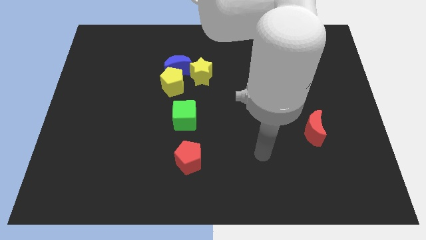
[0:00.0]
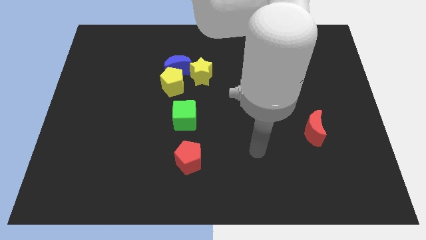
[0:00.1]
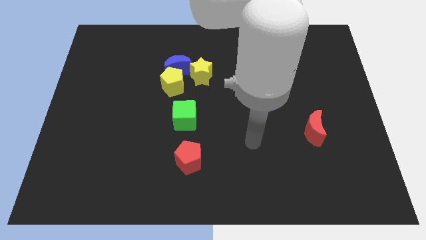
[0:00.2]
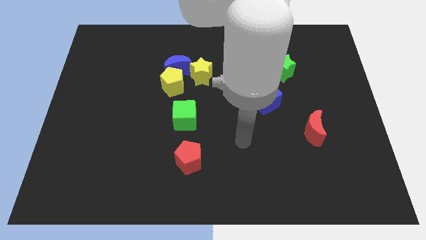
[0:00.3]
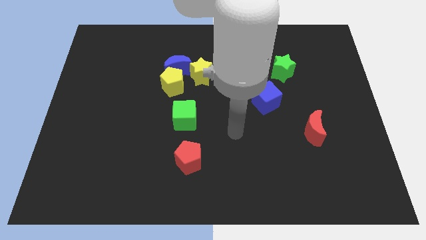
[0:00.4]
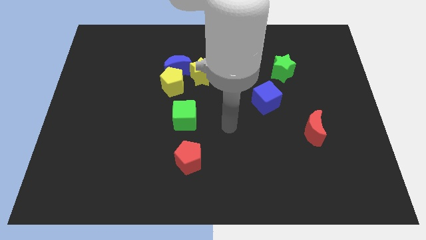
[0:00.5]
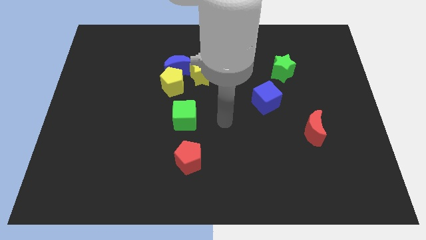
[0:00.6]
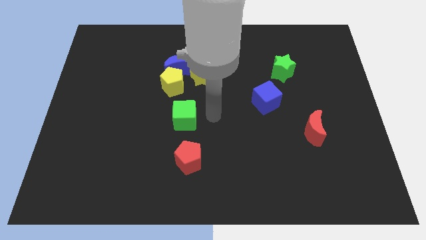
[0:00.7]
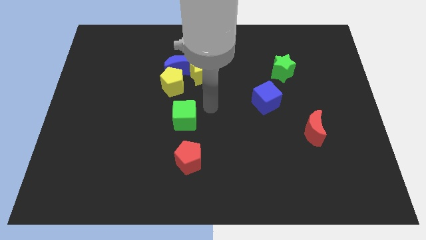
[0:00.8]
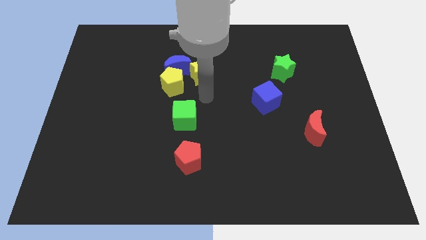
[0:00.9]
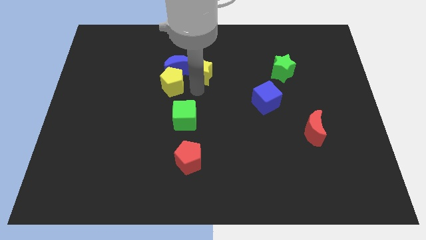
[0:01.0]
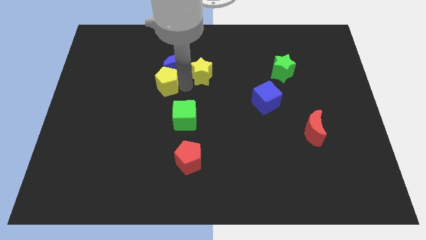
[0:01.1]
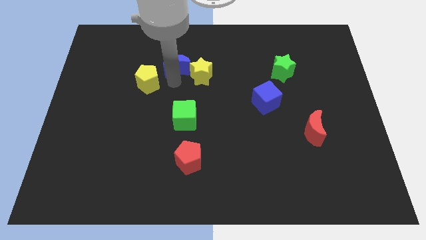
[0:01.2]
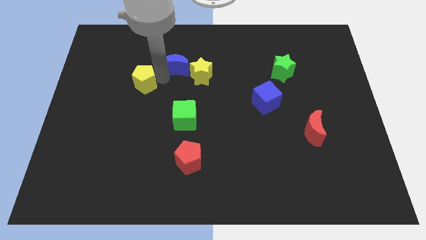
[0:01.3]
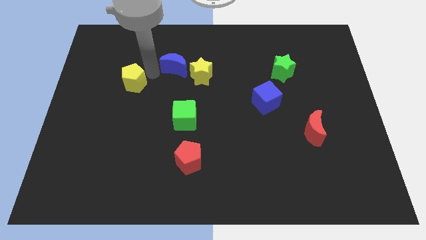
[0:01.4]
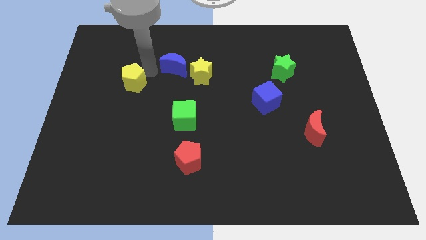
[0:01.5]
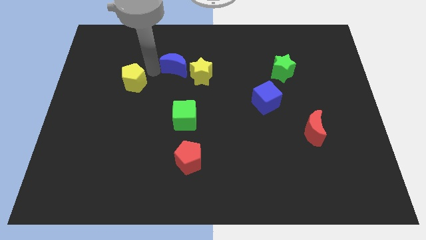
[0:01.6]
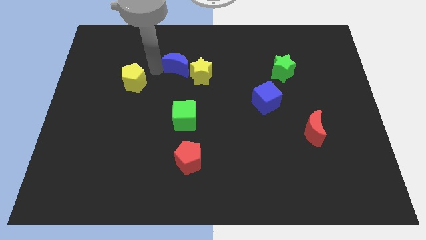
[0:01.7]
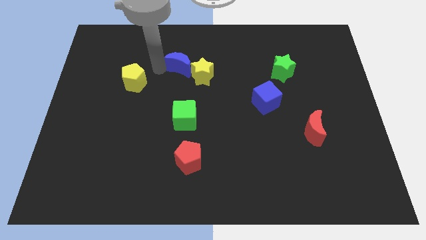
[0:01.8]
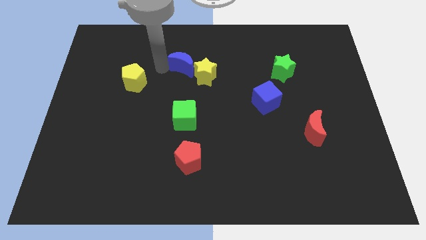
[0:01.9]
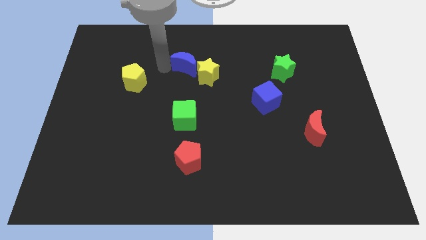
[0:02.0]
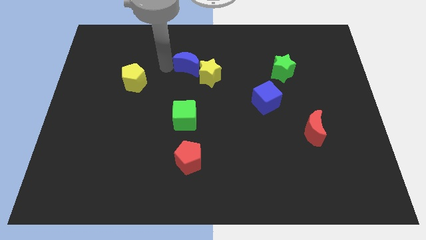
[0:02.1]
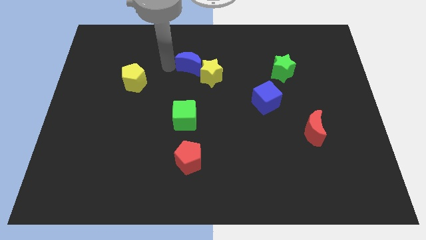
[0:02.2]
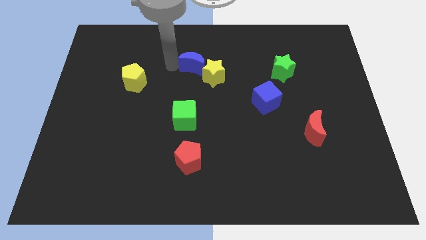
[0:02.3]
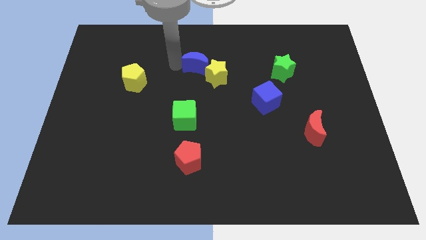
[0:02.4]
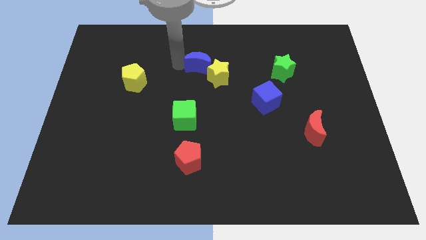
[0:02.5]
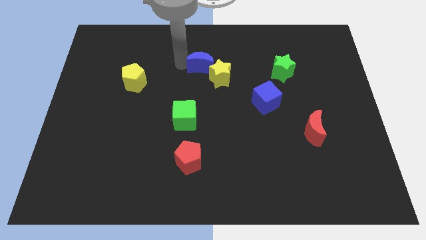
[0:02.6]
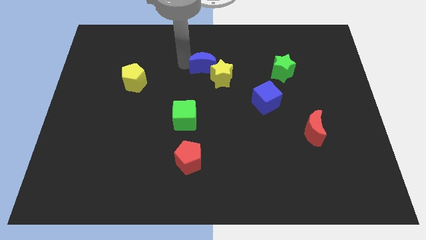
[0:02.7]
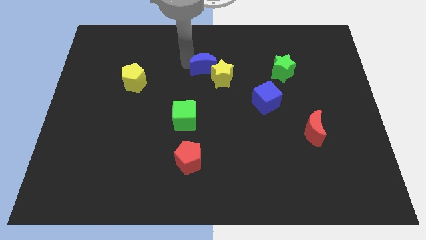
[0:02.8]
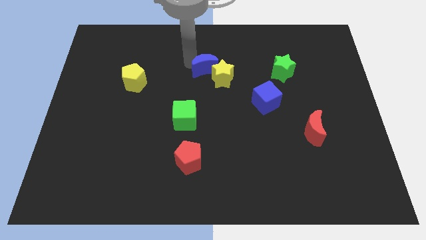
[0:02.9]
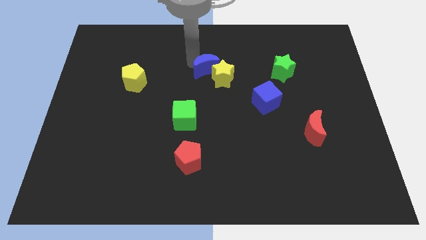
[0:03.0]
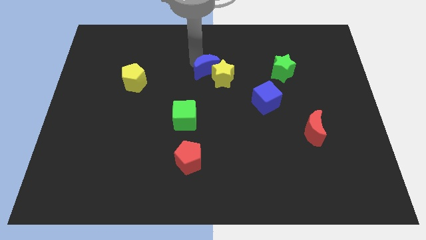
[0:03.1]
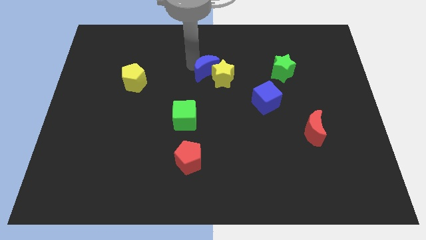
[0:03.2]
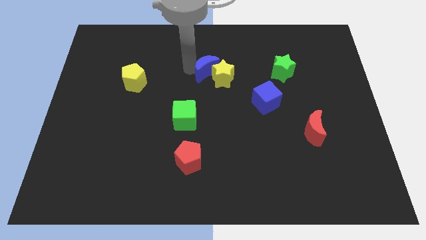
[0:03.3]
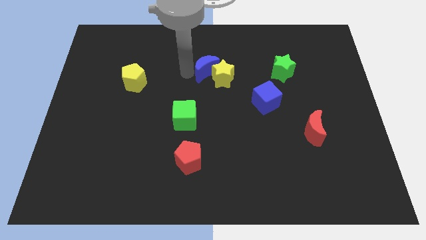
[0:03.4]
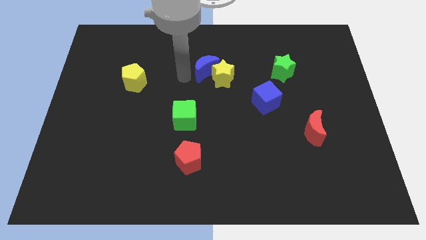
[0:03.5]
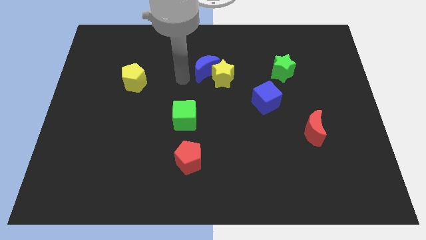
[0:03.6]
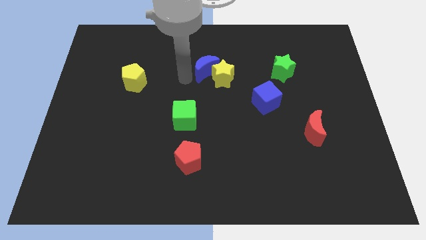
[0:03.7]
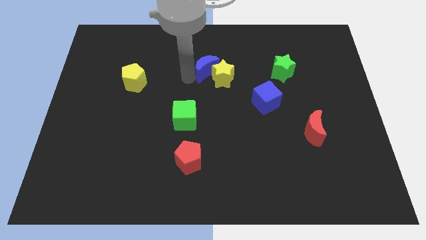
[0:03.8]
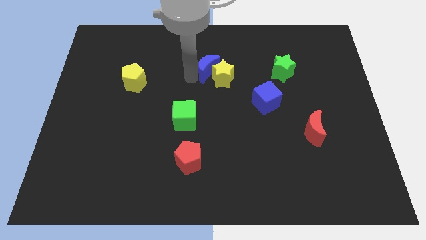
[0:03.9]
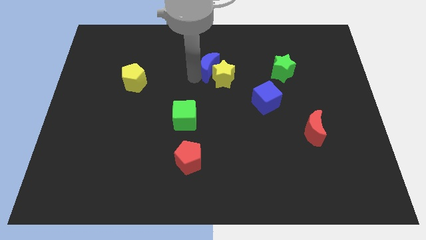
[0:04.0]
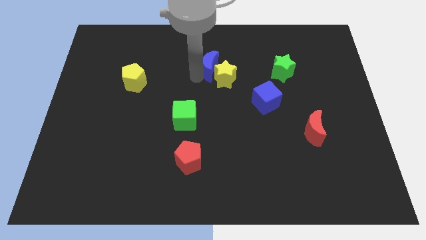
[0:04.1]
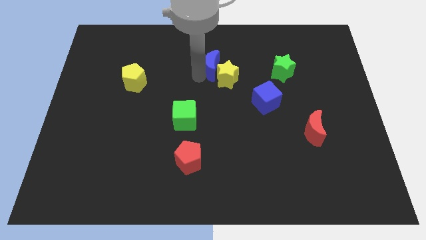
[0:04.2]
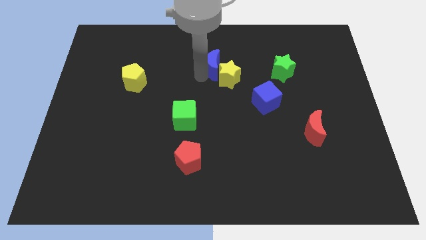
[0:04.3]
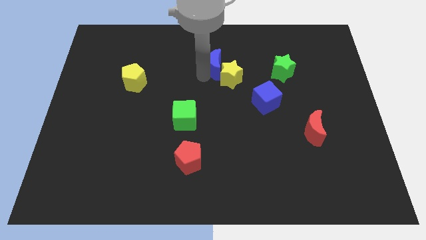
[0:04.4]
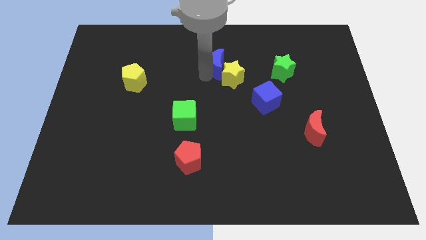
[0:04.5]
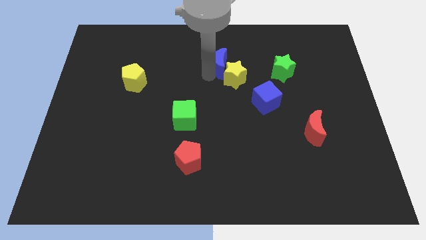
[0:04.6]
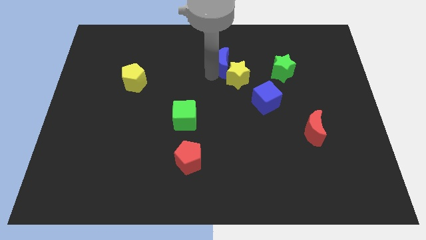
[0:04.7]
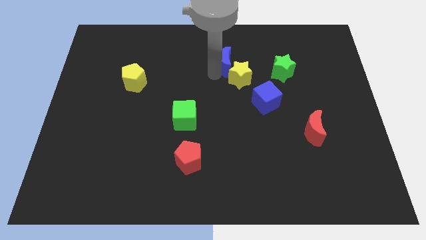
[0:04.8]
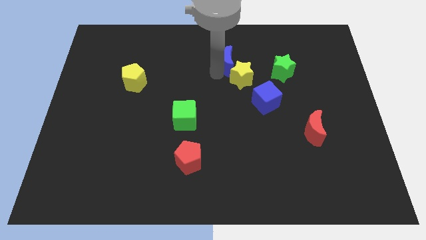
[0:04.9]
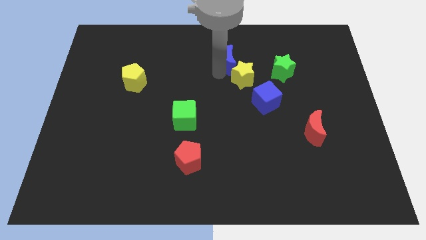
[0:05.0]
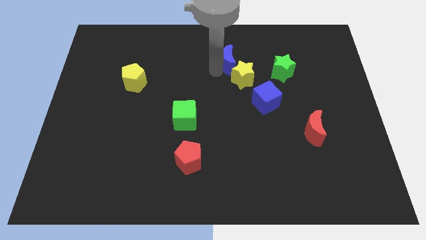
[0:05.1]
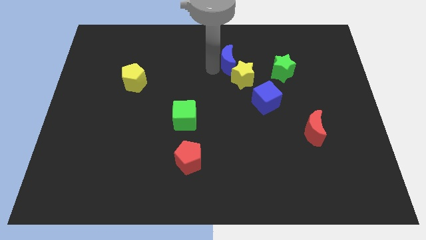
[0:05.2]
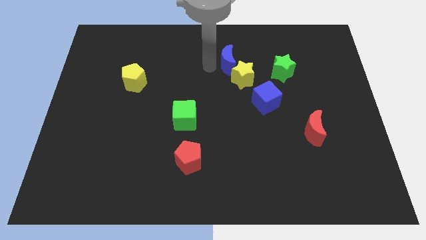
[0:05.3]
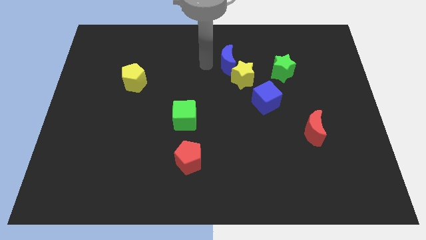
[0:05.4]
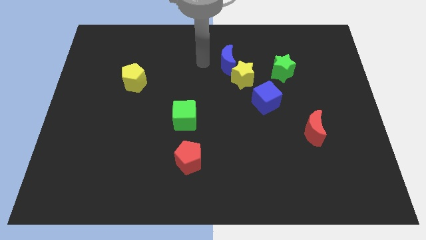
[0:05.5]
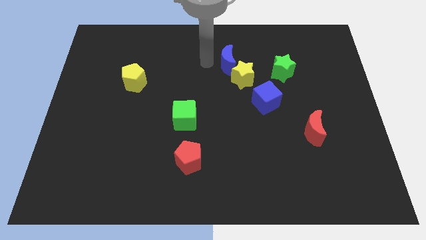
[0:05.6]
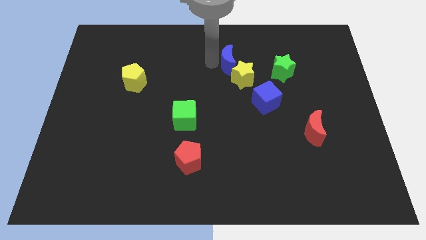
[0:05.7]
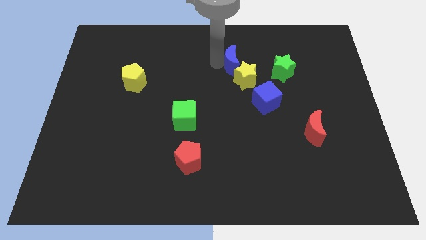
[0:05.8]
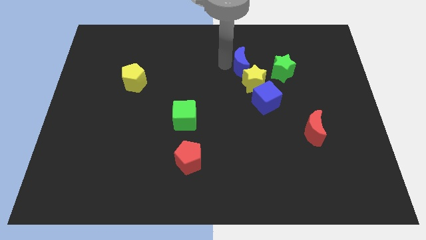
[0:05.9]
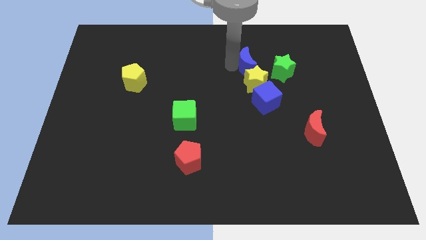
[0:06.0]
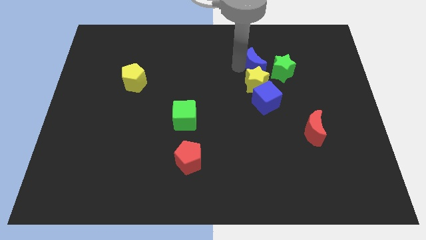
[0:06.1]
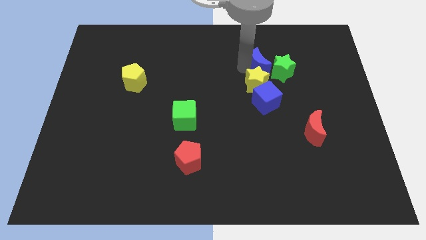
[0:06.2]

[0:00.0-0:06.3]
slide the blue moon right

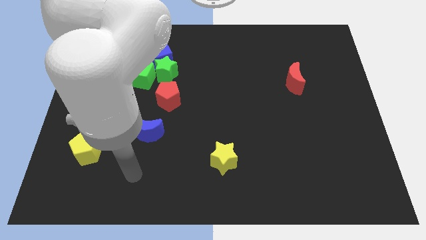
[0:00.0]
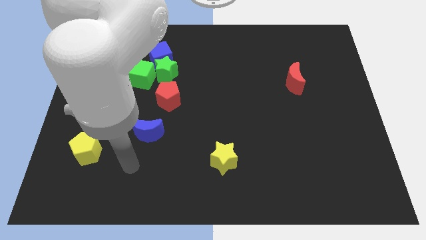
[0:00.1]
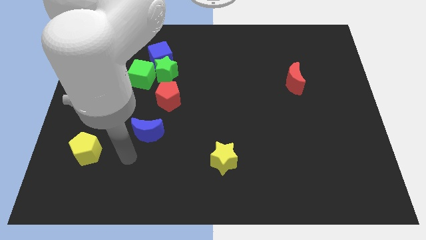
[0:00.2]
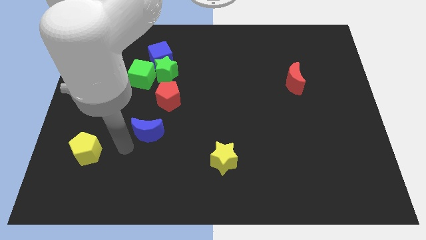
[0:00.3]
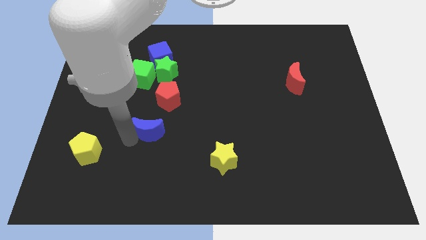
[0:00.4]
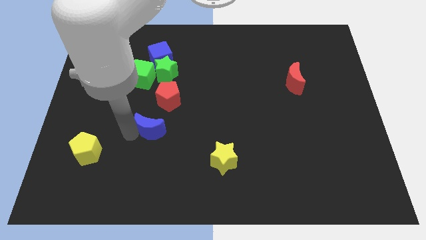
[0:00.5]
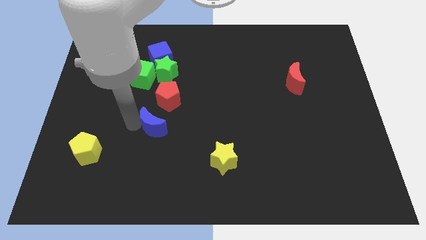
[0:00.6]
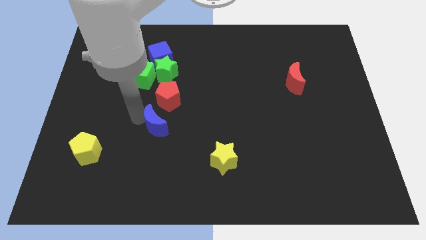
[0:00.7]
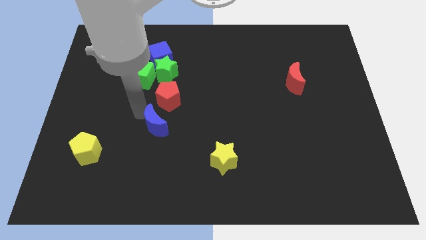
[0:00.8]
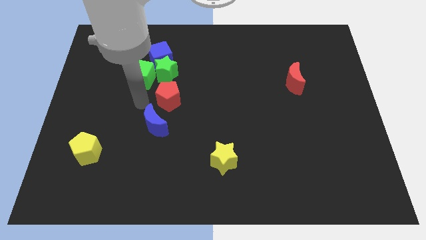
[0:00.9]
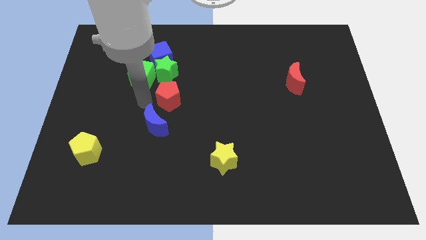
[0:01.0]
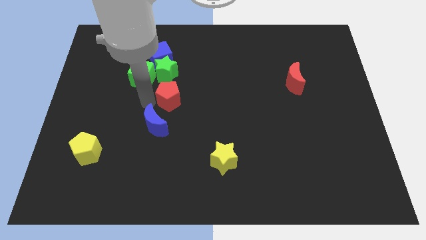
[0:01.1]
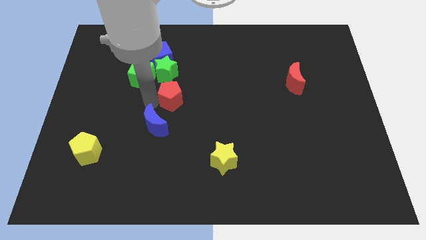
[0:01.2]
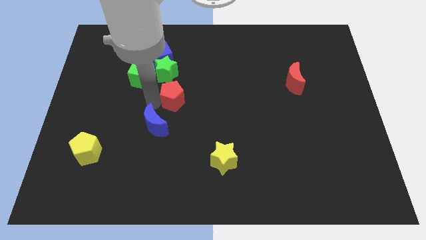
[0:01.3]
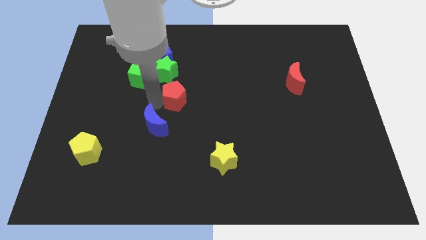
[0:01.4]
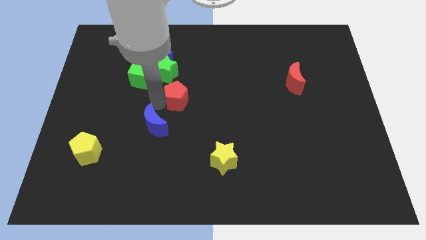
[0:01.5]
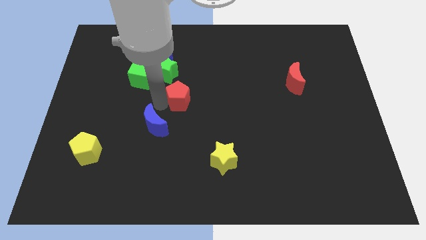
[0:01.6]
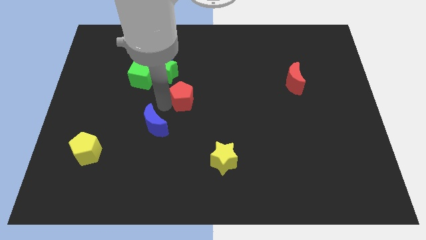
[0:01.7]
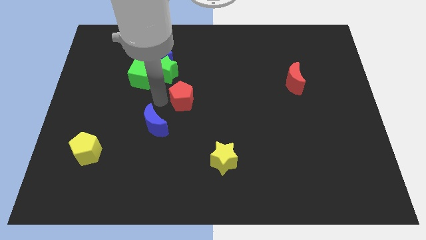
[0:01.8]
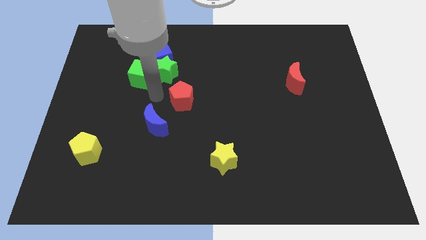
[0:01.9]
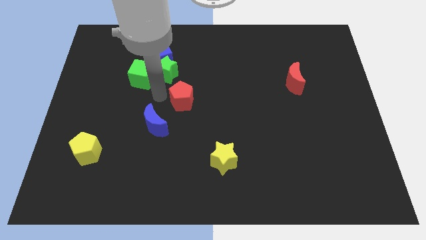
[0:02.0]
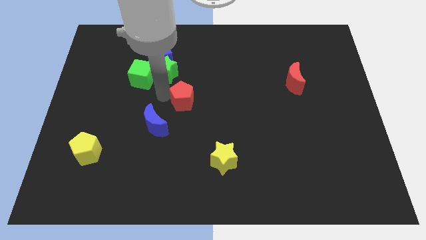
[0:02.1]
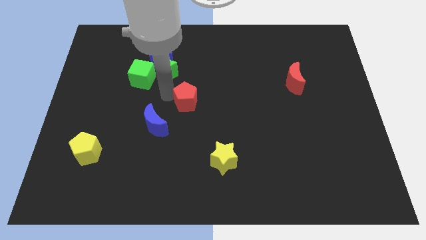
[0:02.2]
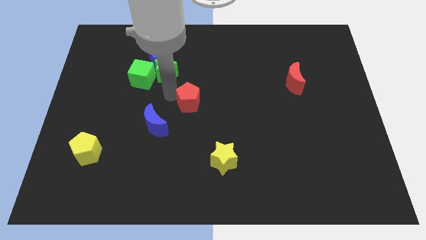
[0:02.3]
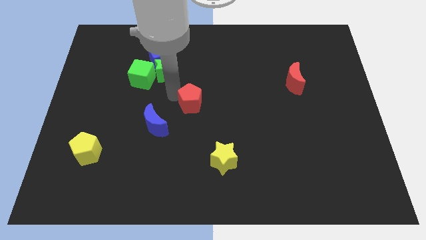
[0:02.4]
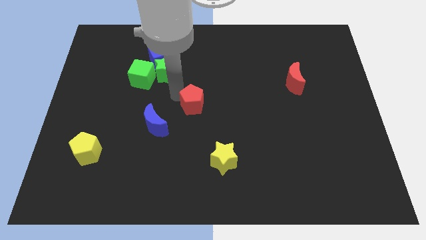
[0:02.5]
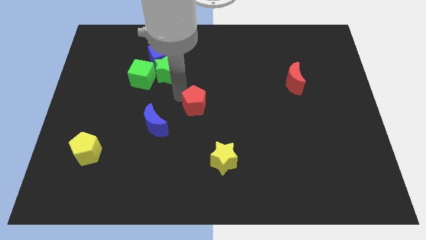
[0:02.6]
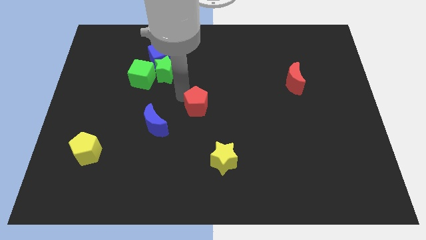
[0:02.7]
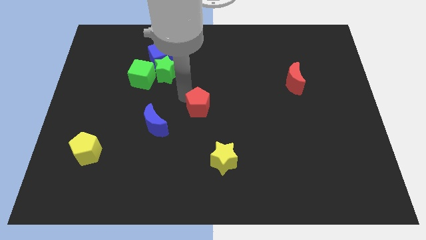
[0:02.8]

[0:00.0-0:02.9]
push the red pentagon to the right a bit
